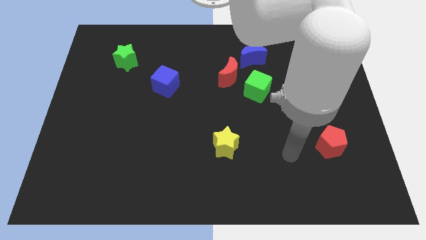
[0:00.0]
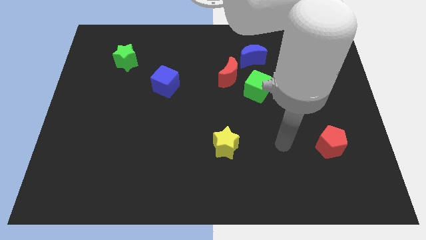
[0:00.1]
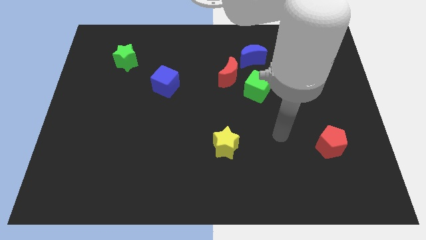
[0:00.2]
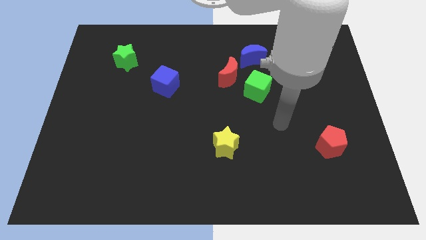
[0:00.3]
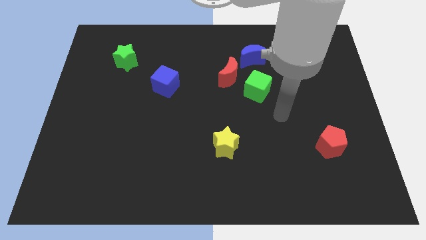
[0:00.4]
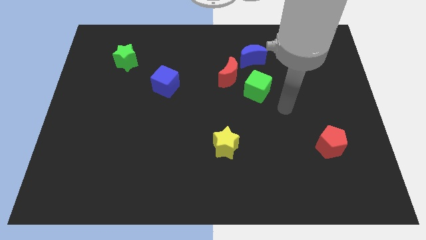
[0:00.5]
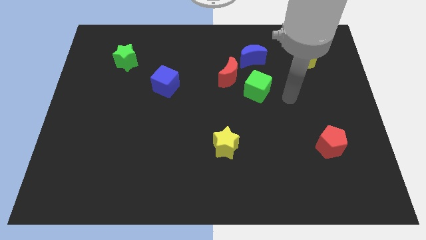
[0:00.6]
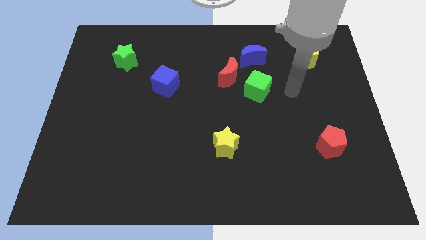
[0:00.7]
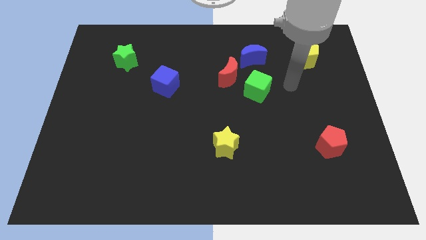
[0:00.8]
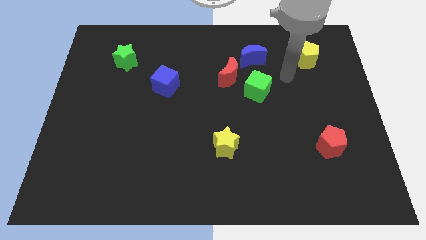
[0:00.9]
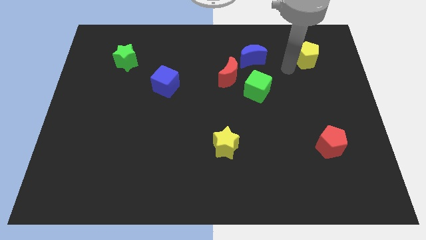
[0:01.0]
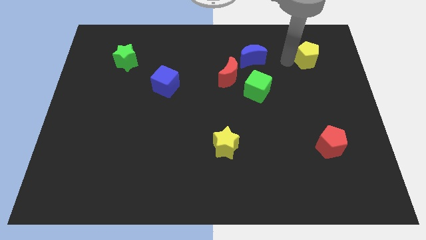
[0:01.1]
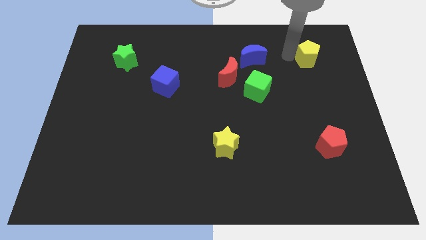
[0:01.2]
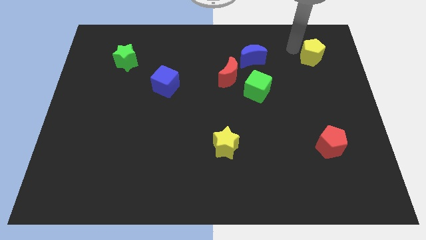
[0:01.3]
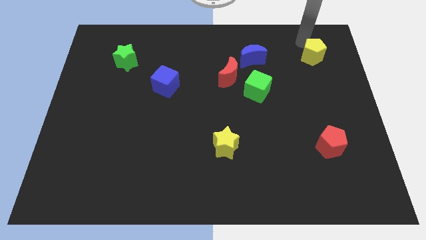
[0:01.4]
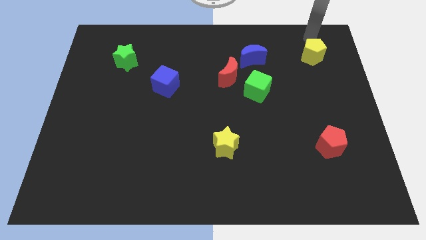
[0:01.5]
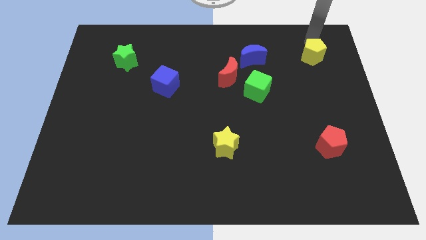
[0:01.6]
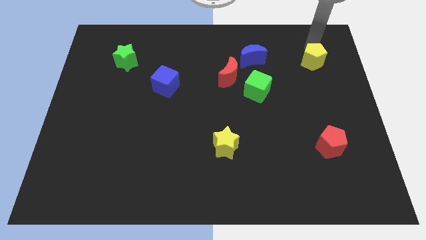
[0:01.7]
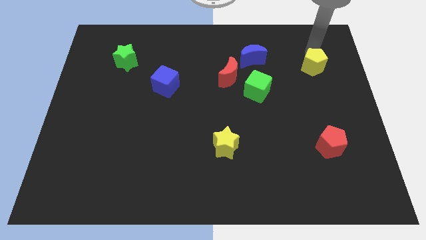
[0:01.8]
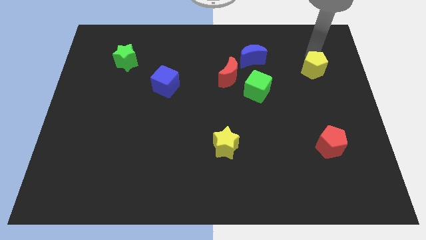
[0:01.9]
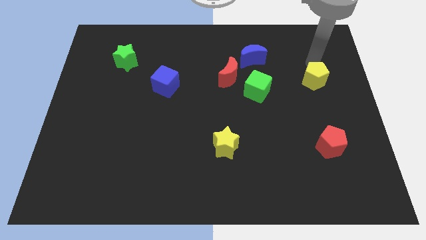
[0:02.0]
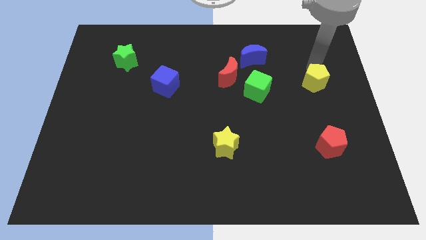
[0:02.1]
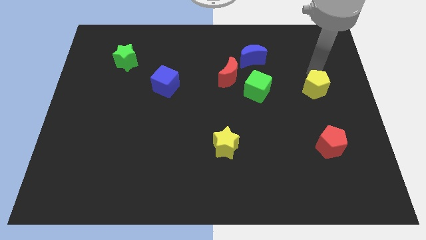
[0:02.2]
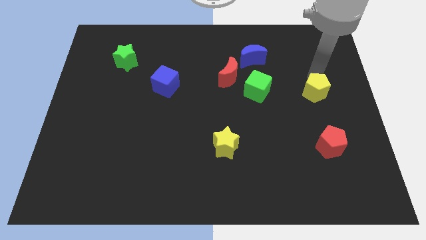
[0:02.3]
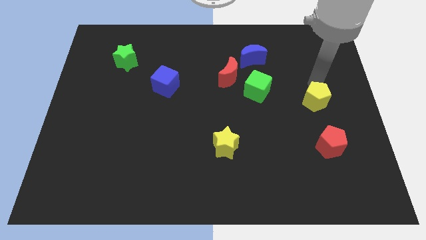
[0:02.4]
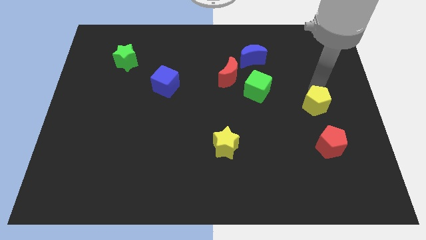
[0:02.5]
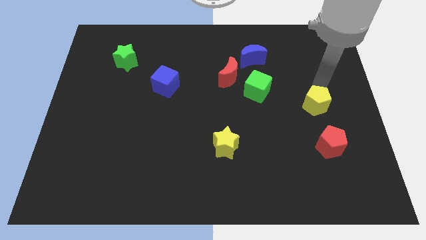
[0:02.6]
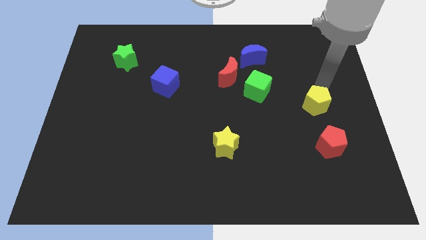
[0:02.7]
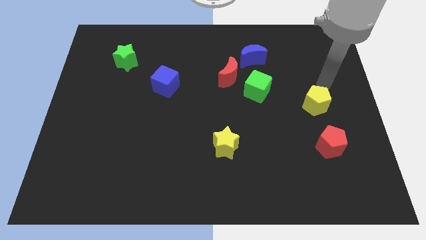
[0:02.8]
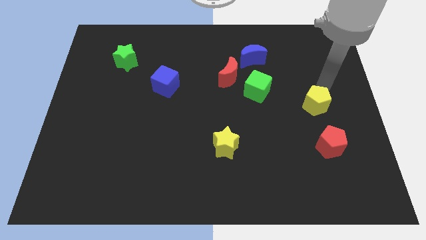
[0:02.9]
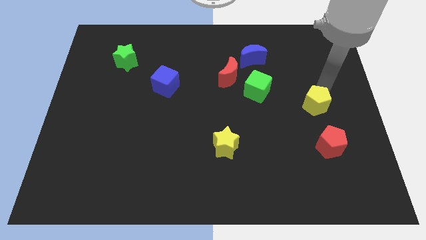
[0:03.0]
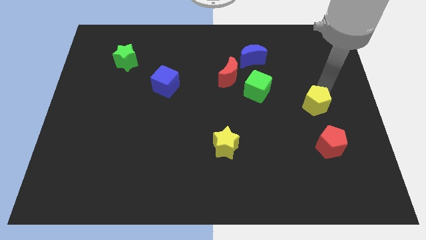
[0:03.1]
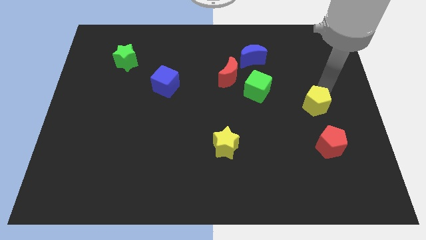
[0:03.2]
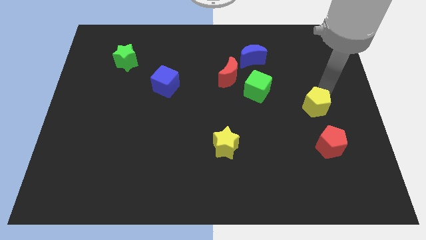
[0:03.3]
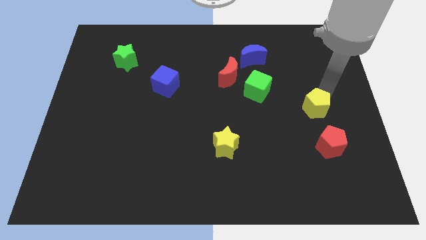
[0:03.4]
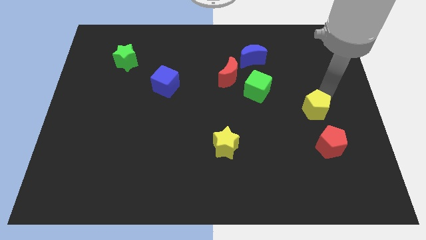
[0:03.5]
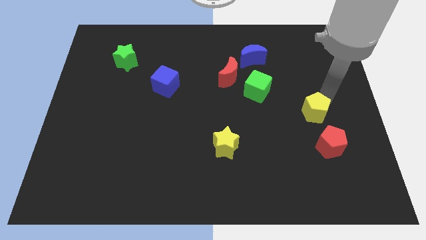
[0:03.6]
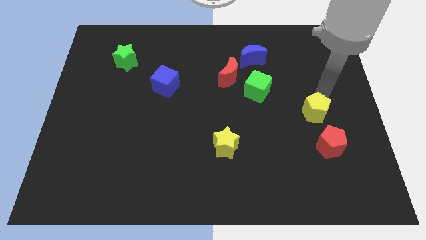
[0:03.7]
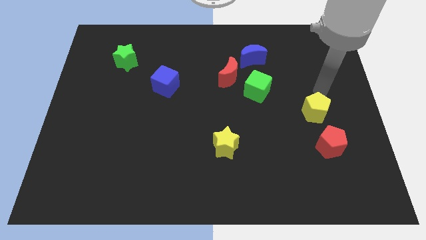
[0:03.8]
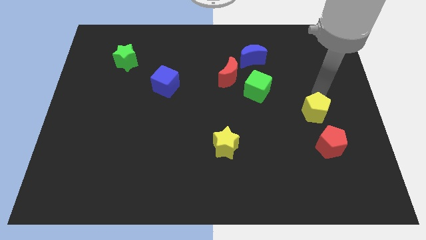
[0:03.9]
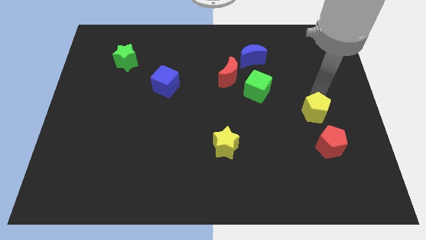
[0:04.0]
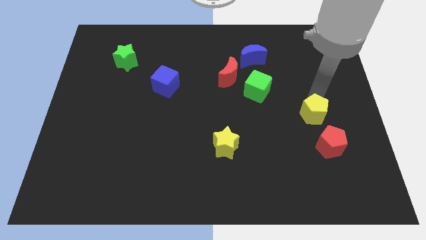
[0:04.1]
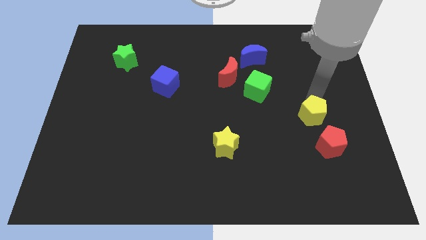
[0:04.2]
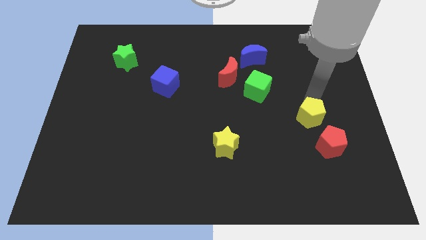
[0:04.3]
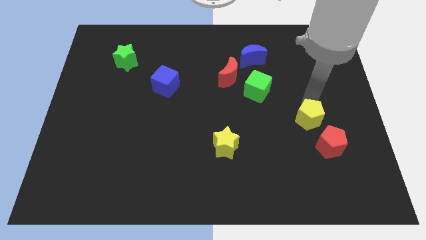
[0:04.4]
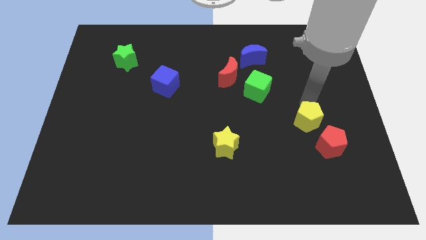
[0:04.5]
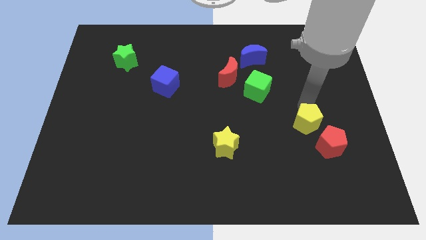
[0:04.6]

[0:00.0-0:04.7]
push the yellow pentagon down

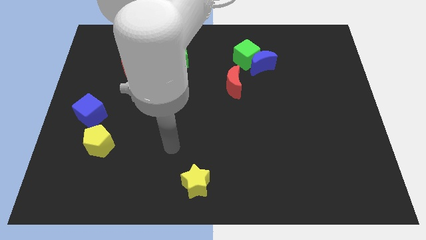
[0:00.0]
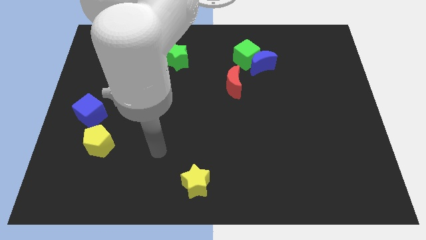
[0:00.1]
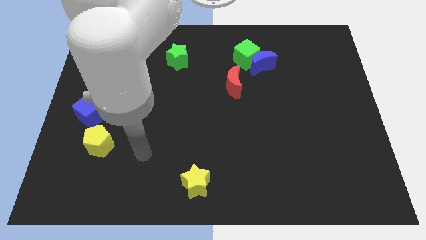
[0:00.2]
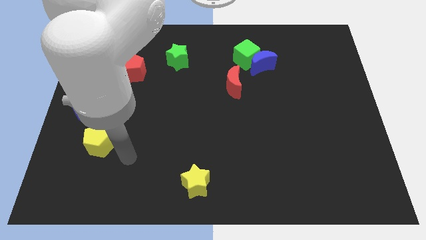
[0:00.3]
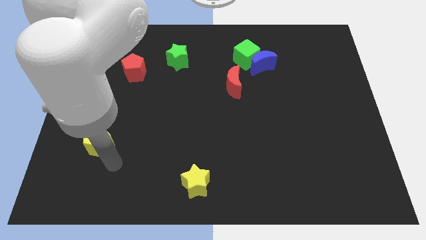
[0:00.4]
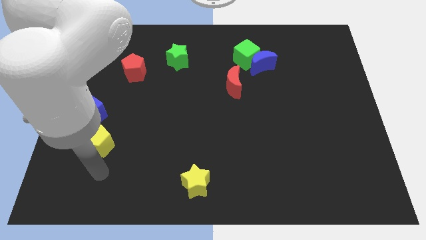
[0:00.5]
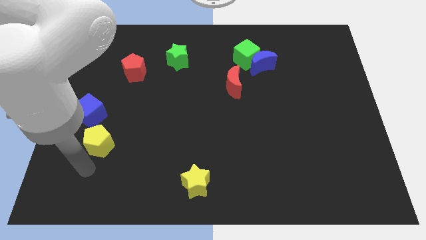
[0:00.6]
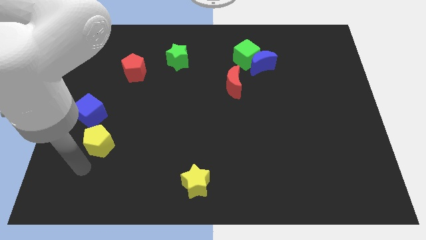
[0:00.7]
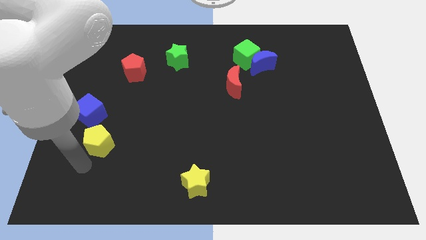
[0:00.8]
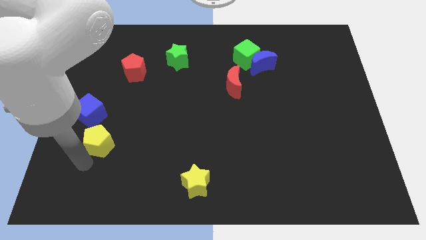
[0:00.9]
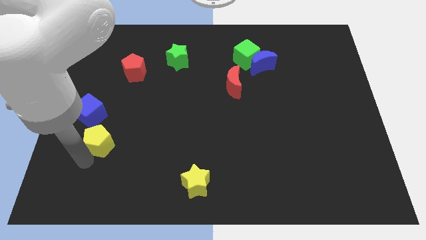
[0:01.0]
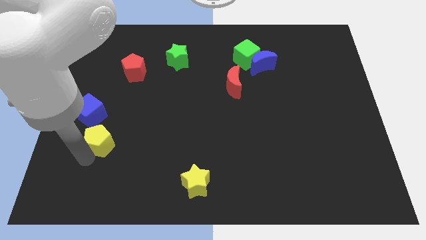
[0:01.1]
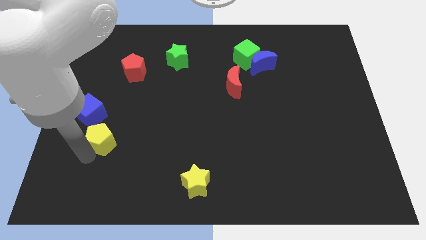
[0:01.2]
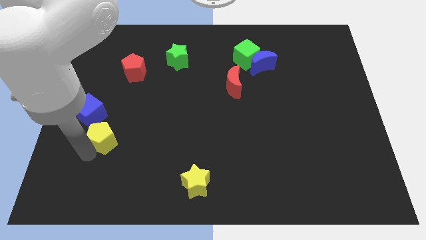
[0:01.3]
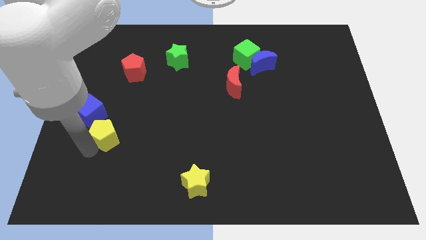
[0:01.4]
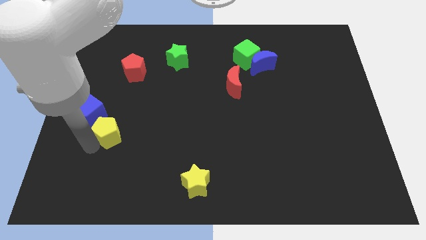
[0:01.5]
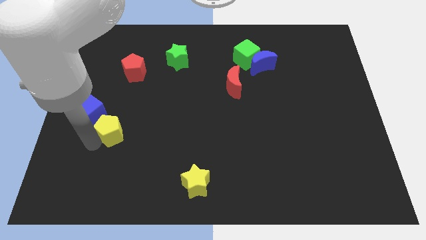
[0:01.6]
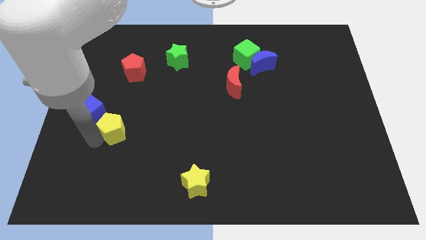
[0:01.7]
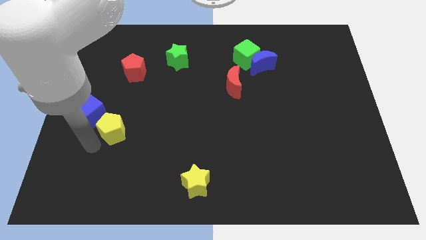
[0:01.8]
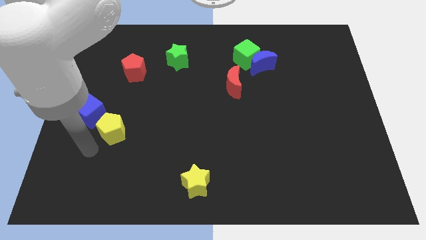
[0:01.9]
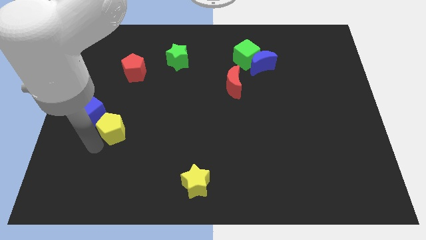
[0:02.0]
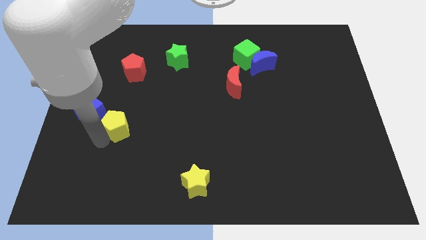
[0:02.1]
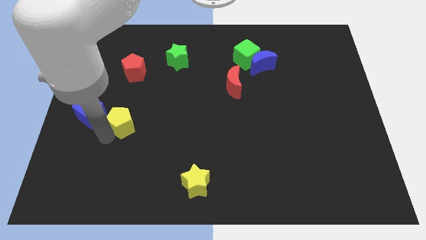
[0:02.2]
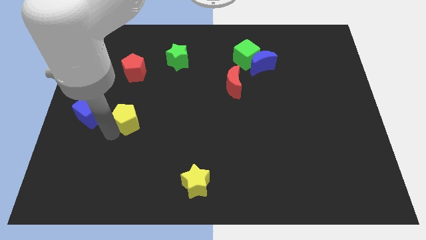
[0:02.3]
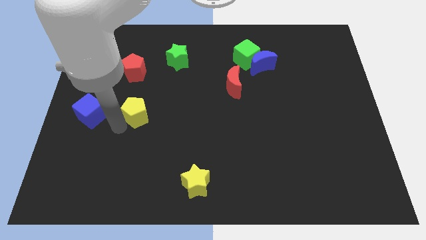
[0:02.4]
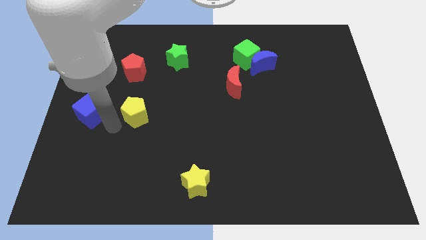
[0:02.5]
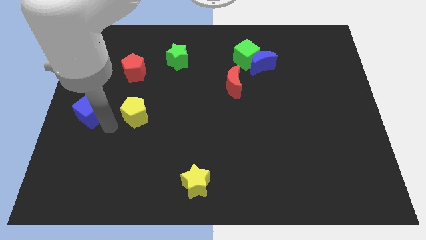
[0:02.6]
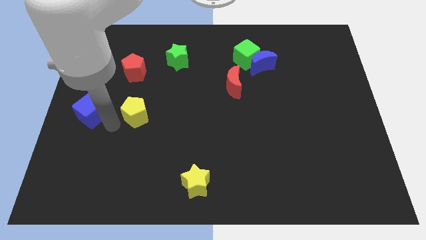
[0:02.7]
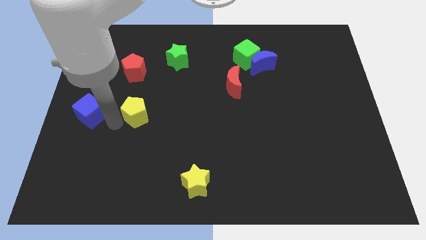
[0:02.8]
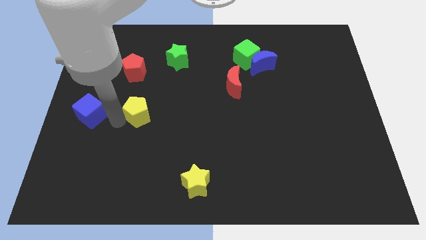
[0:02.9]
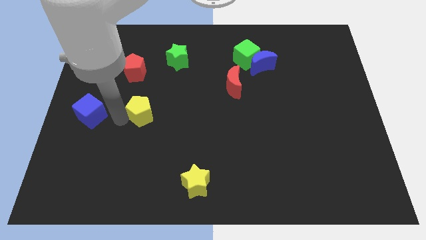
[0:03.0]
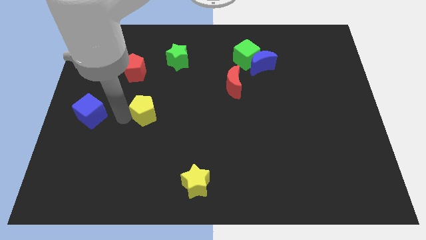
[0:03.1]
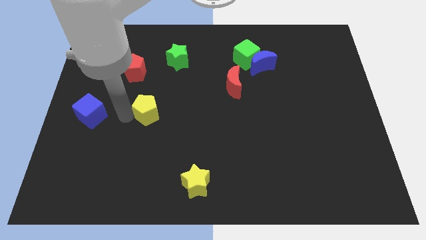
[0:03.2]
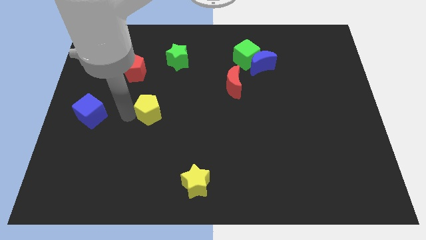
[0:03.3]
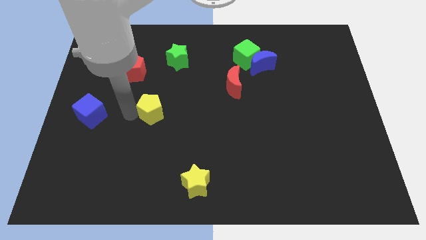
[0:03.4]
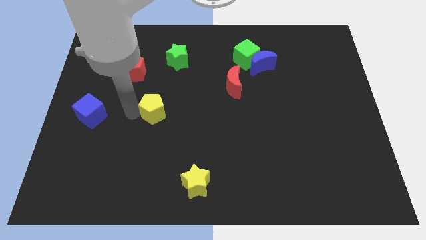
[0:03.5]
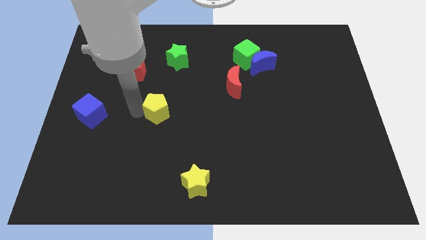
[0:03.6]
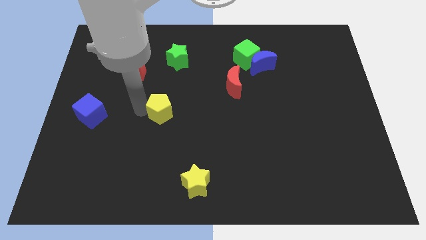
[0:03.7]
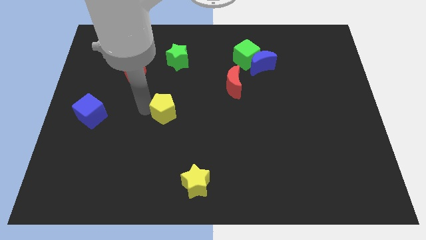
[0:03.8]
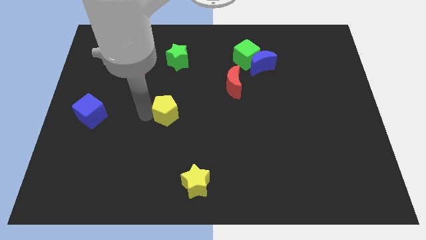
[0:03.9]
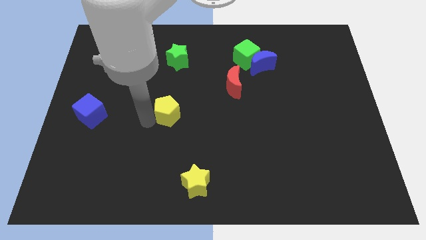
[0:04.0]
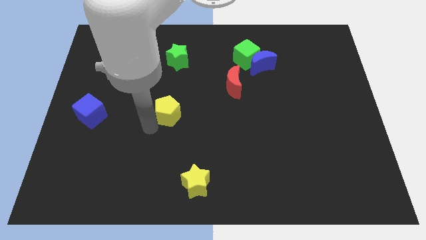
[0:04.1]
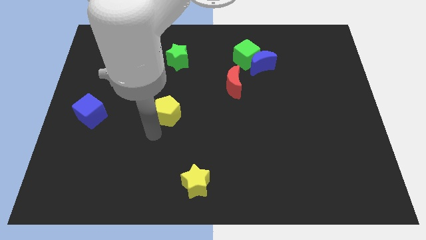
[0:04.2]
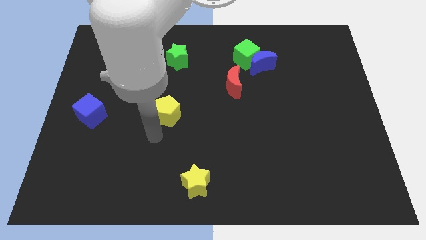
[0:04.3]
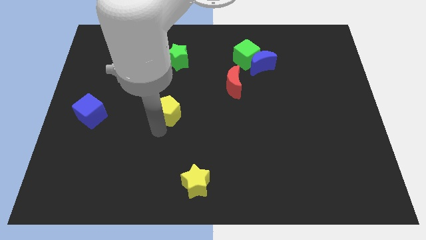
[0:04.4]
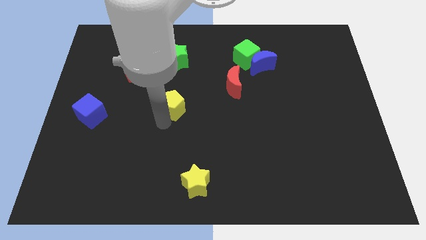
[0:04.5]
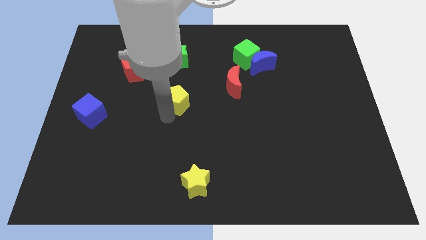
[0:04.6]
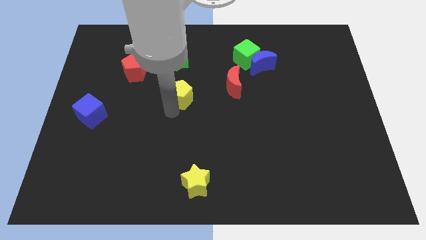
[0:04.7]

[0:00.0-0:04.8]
slide the yellow pentagon upwards and then right
